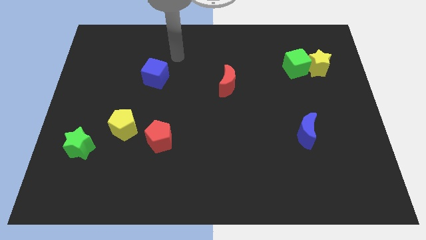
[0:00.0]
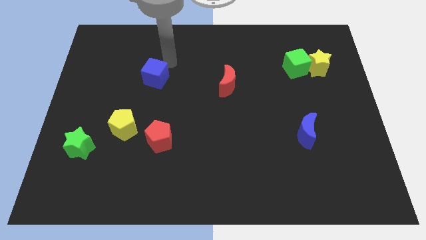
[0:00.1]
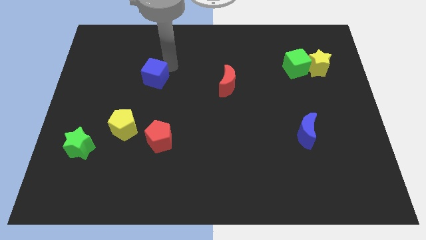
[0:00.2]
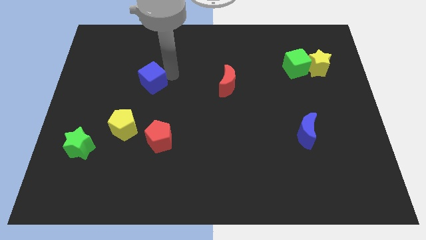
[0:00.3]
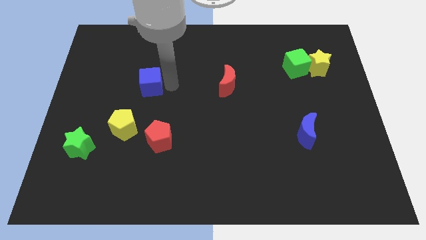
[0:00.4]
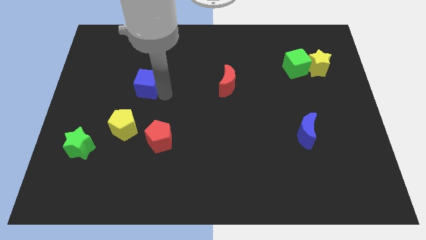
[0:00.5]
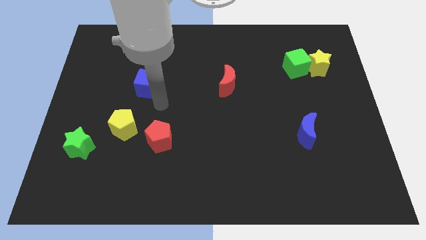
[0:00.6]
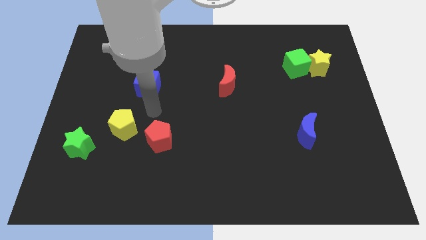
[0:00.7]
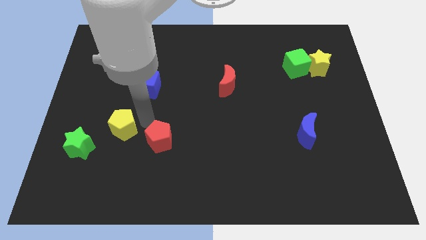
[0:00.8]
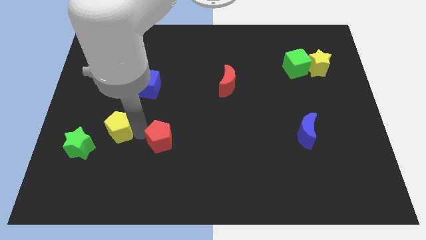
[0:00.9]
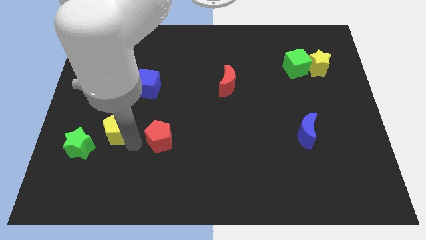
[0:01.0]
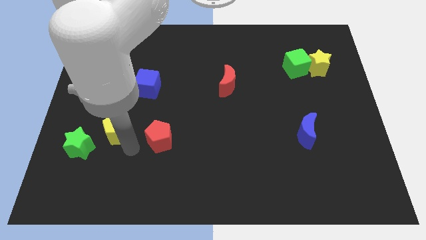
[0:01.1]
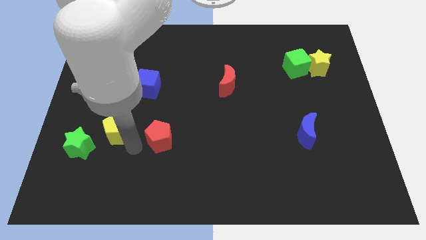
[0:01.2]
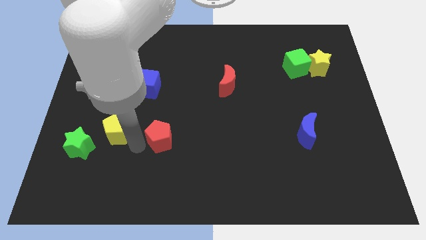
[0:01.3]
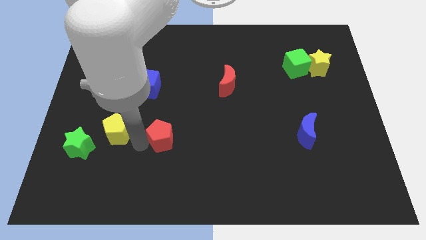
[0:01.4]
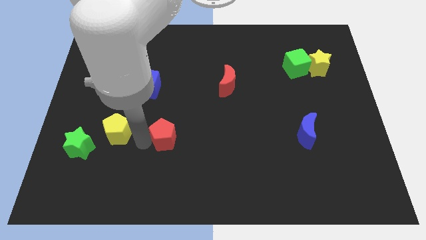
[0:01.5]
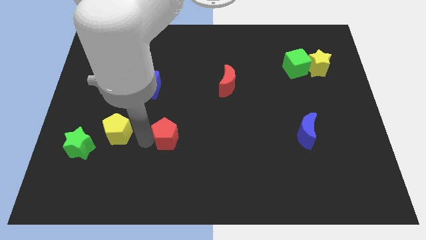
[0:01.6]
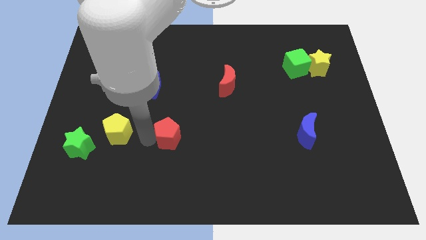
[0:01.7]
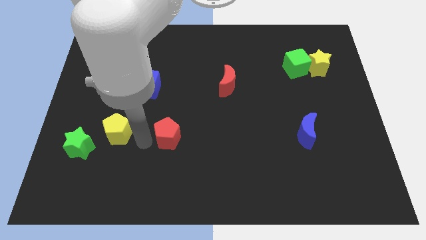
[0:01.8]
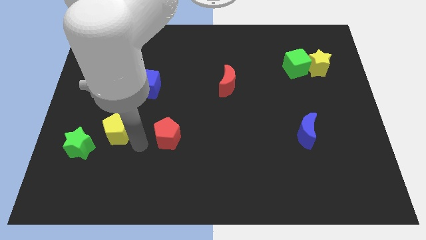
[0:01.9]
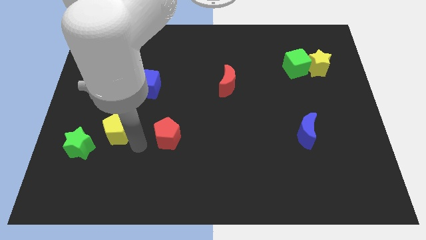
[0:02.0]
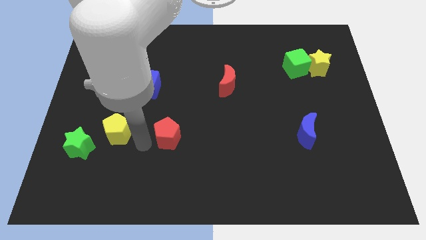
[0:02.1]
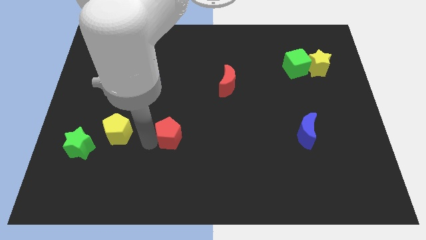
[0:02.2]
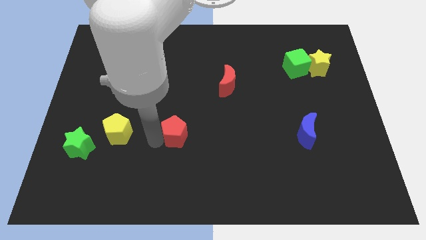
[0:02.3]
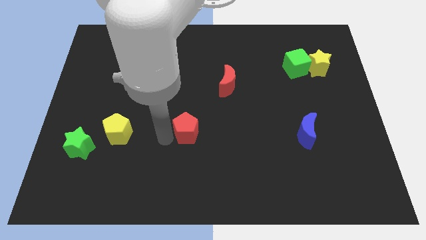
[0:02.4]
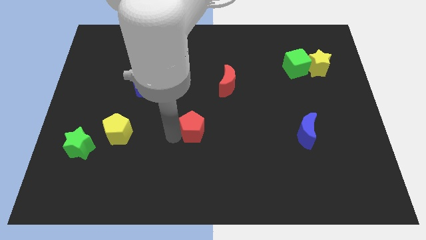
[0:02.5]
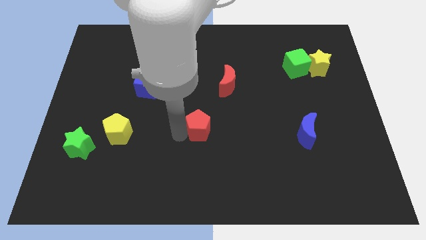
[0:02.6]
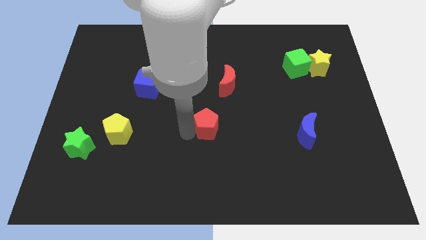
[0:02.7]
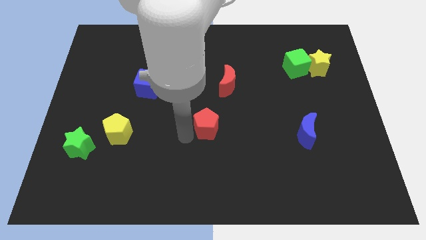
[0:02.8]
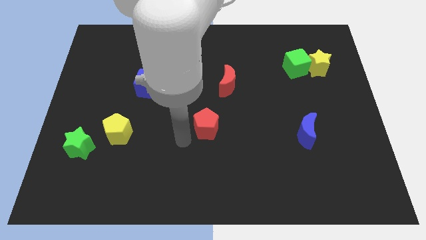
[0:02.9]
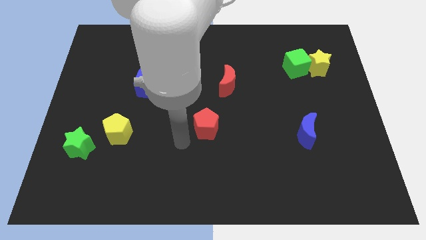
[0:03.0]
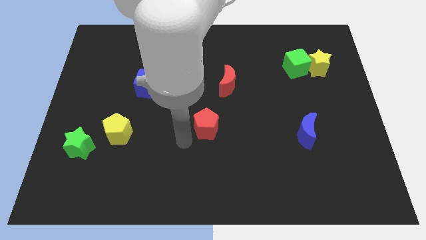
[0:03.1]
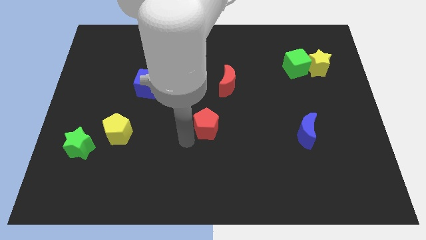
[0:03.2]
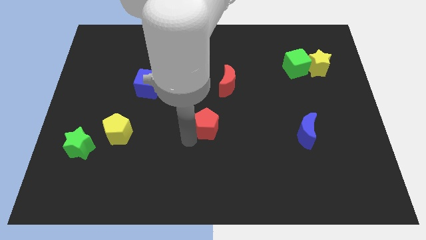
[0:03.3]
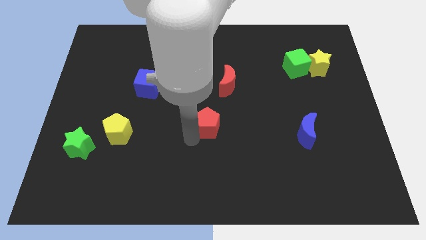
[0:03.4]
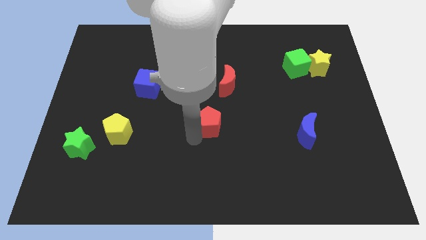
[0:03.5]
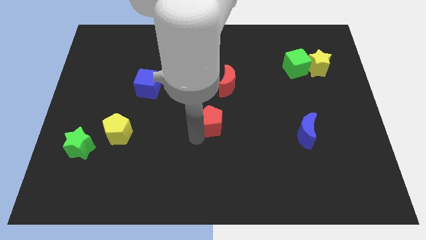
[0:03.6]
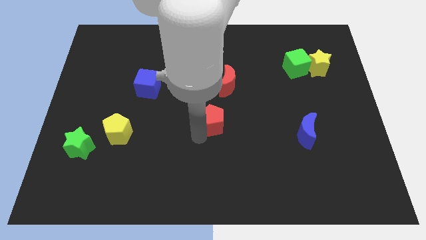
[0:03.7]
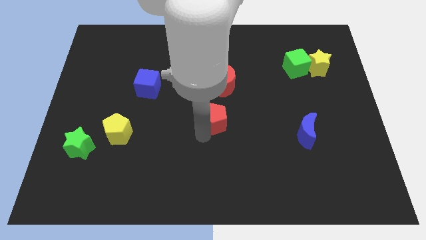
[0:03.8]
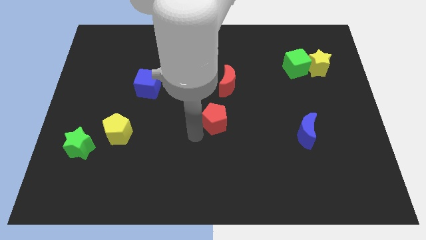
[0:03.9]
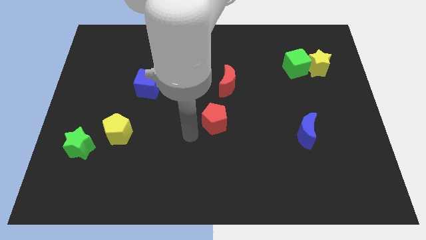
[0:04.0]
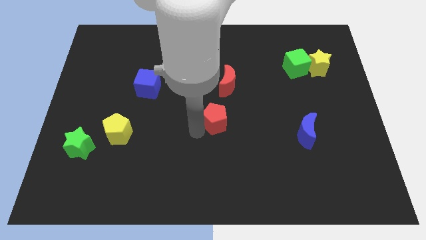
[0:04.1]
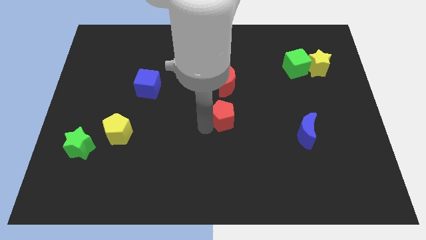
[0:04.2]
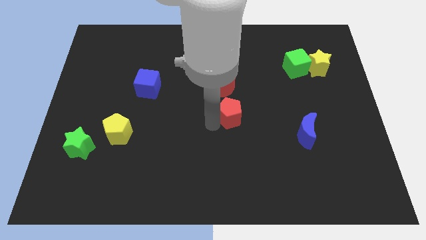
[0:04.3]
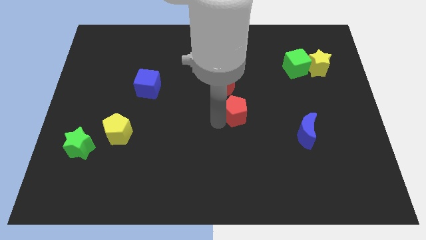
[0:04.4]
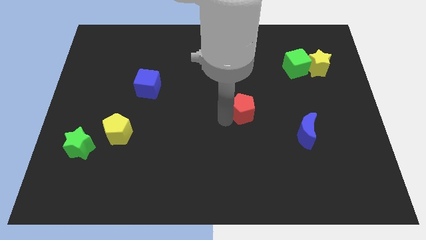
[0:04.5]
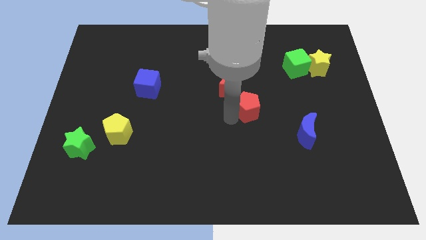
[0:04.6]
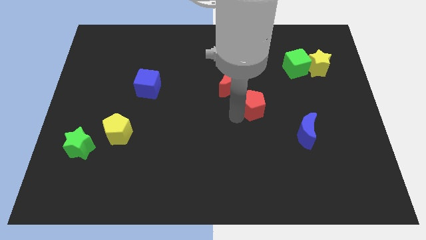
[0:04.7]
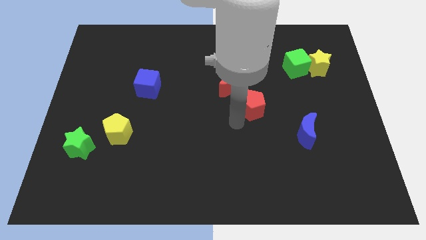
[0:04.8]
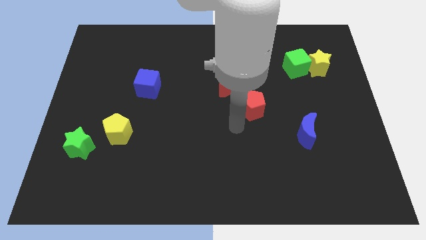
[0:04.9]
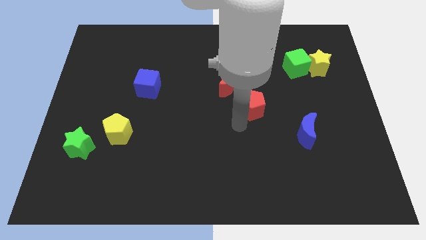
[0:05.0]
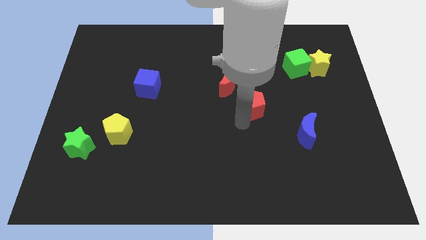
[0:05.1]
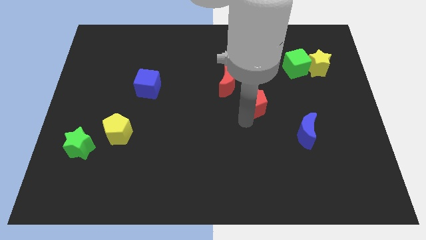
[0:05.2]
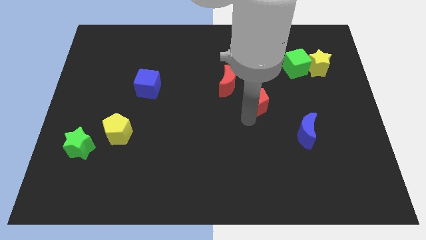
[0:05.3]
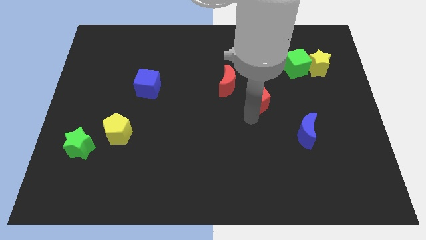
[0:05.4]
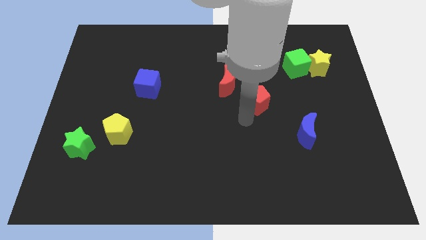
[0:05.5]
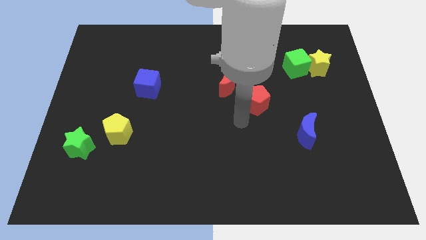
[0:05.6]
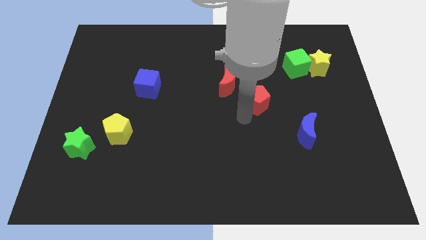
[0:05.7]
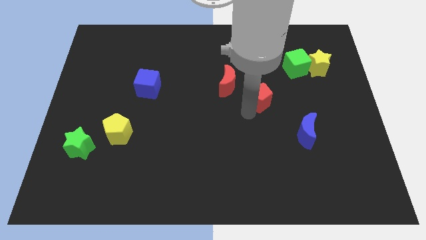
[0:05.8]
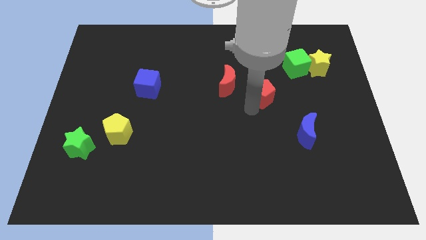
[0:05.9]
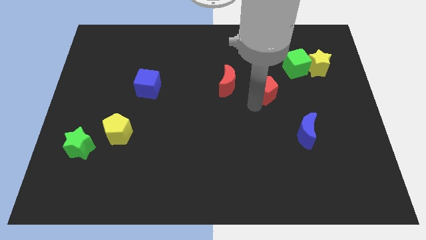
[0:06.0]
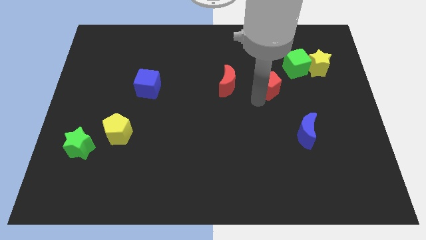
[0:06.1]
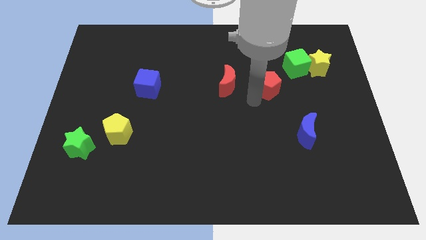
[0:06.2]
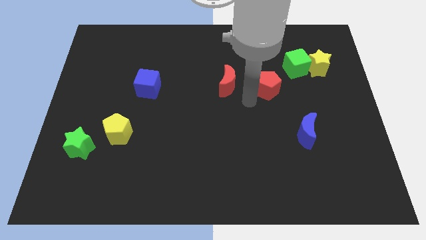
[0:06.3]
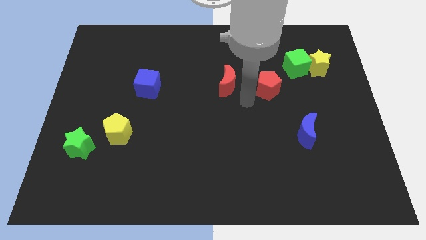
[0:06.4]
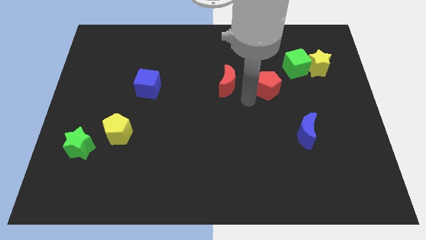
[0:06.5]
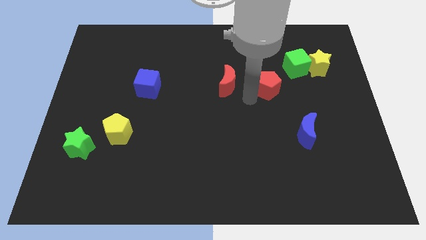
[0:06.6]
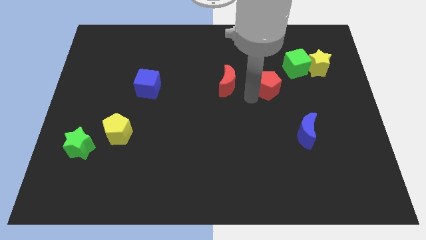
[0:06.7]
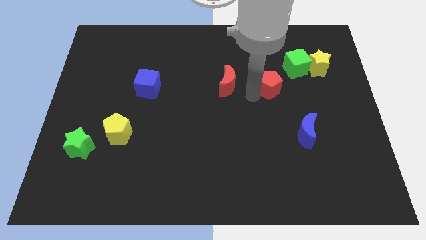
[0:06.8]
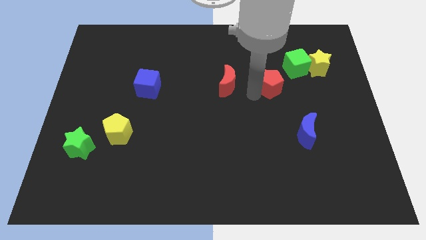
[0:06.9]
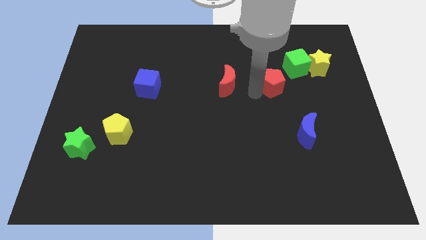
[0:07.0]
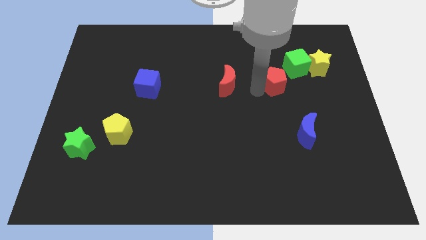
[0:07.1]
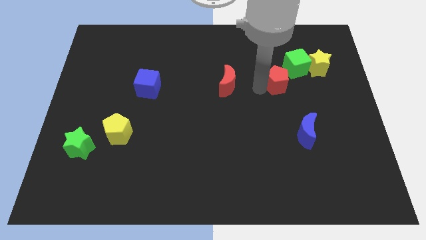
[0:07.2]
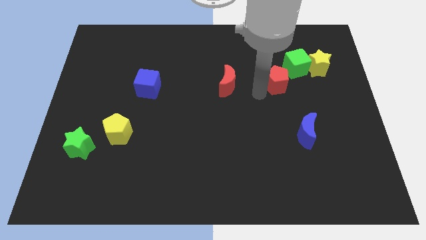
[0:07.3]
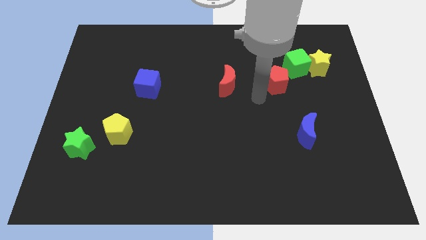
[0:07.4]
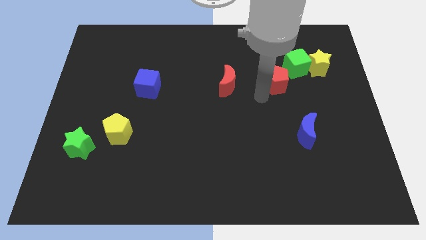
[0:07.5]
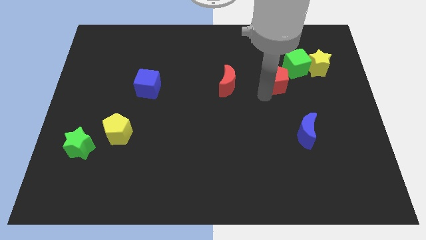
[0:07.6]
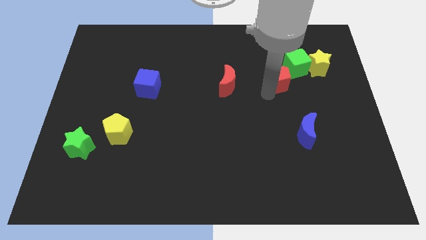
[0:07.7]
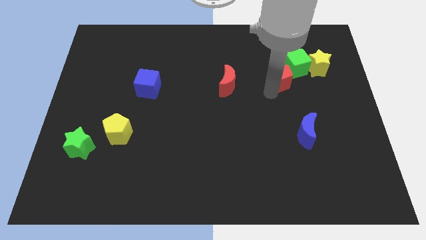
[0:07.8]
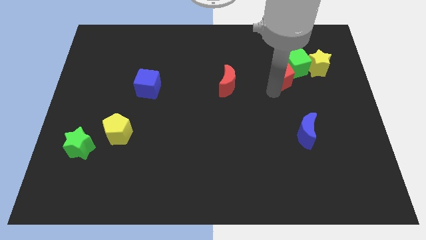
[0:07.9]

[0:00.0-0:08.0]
move the red pentagon towards the green cube

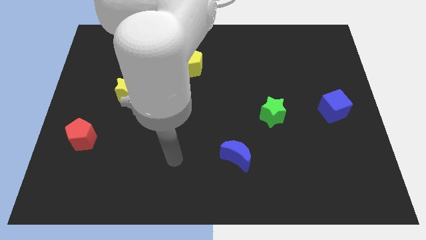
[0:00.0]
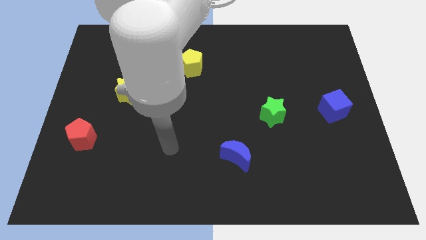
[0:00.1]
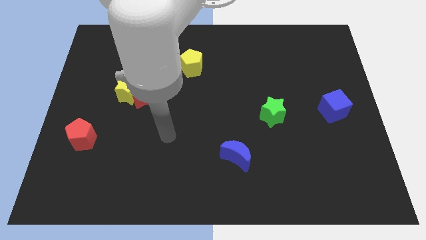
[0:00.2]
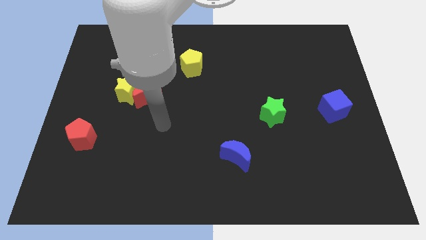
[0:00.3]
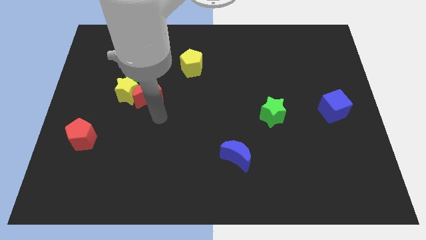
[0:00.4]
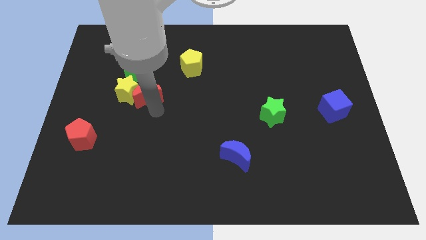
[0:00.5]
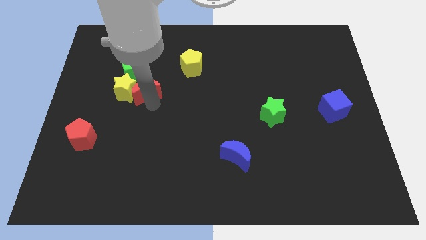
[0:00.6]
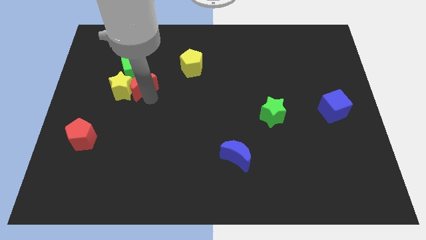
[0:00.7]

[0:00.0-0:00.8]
put the red moon next to the green cube
